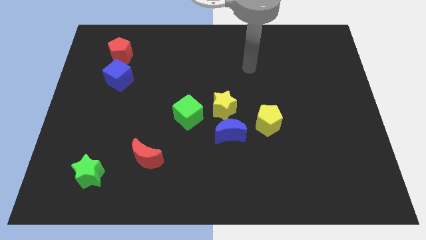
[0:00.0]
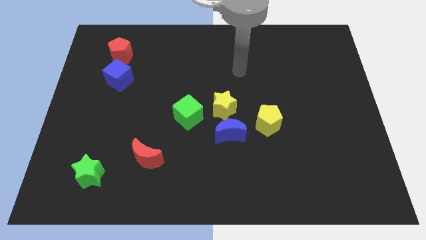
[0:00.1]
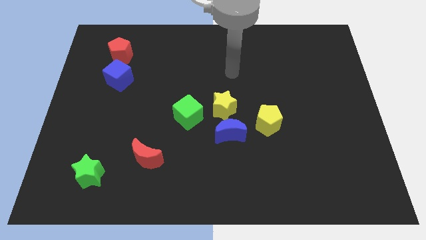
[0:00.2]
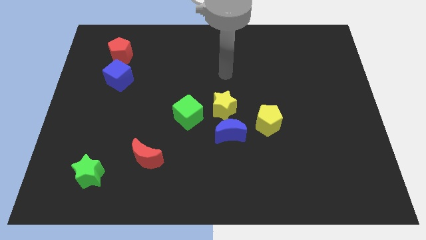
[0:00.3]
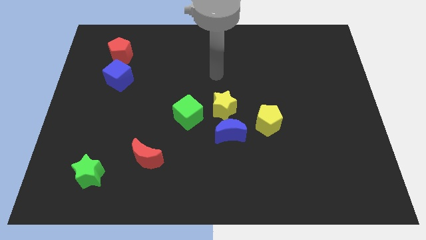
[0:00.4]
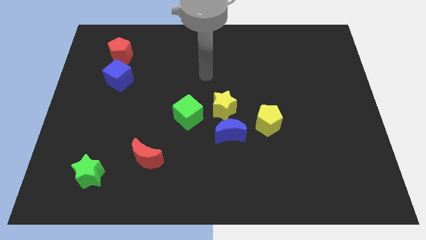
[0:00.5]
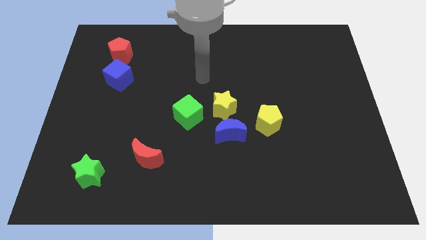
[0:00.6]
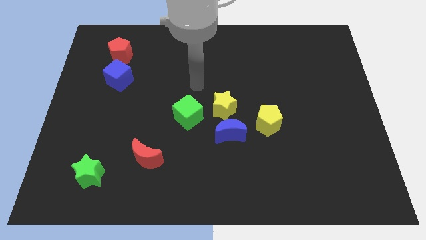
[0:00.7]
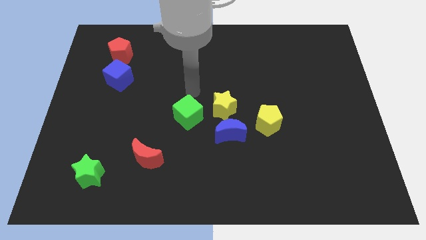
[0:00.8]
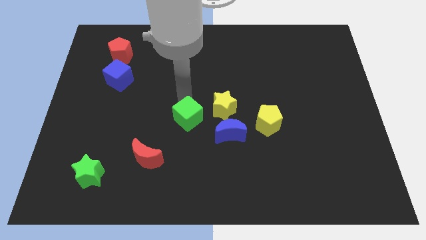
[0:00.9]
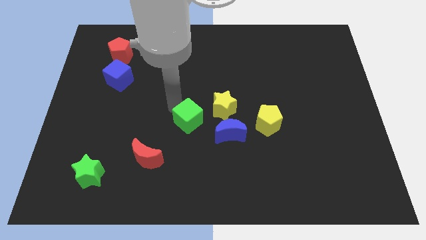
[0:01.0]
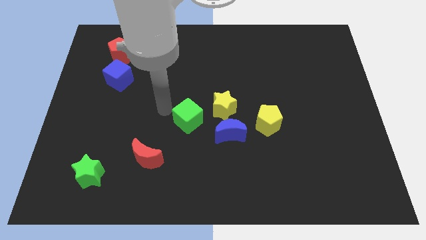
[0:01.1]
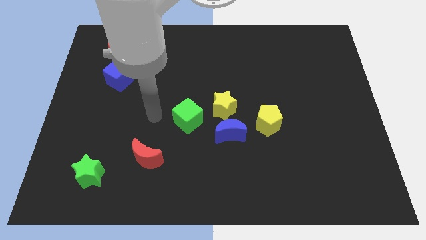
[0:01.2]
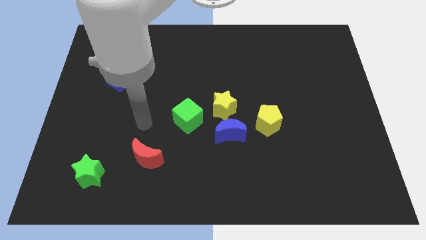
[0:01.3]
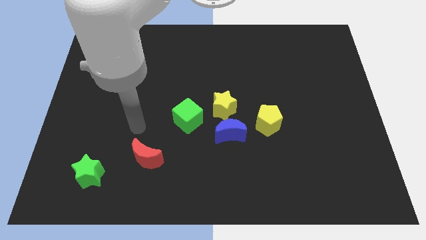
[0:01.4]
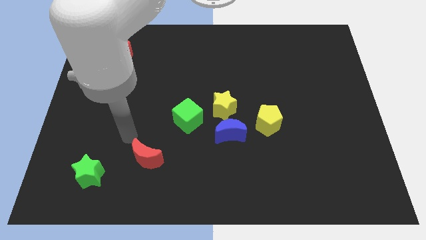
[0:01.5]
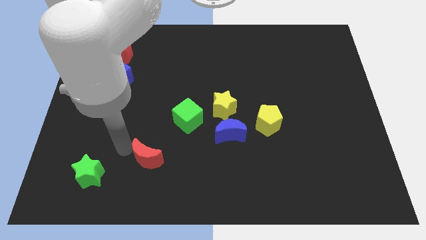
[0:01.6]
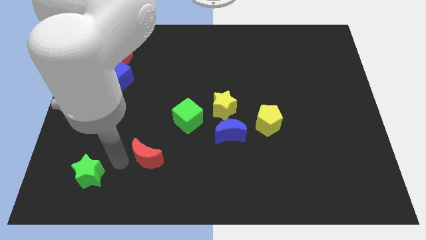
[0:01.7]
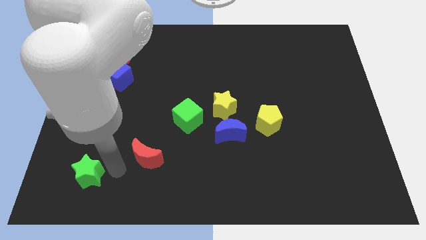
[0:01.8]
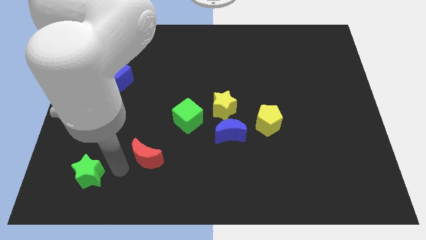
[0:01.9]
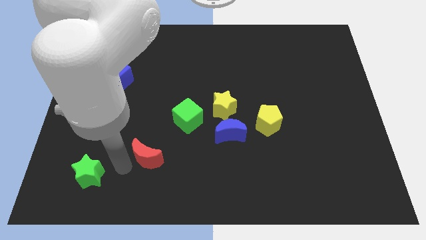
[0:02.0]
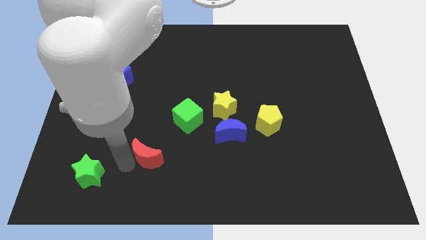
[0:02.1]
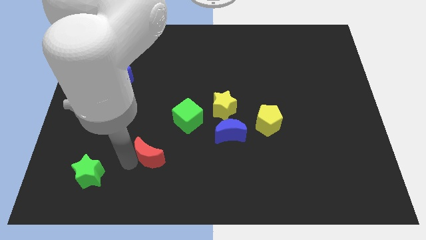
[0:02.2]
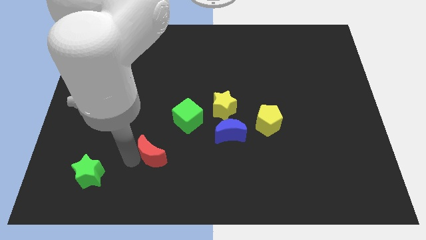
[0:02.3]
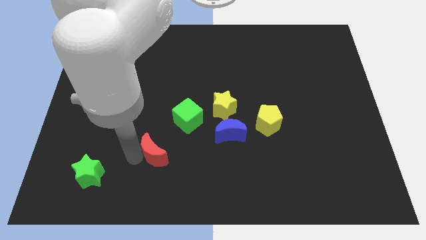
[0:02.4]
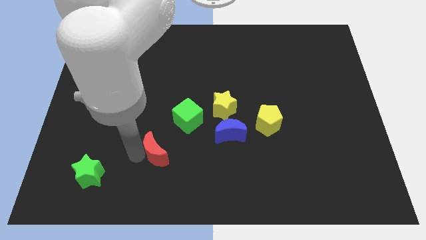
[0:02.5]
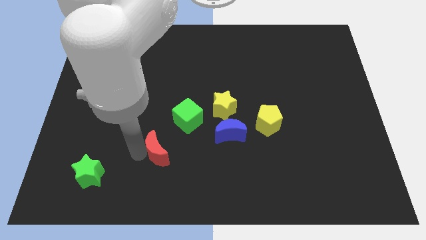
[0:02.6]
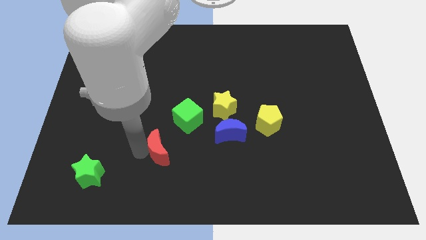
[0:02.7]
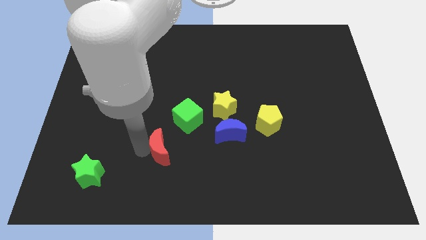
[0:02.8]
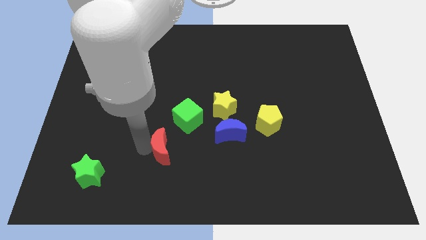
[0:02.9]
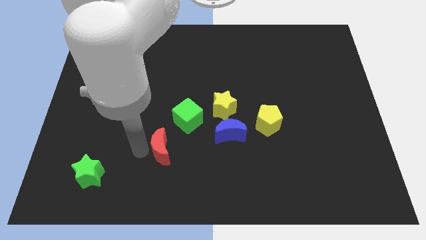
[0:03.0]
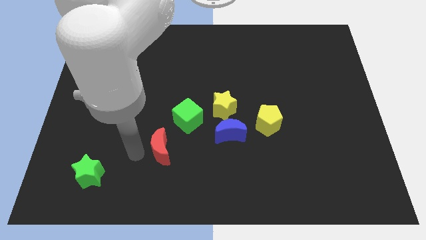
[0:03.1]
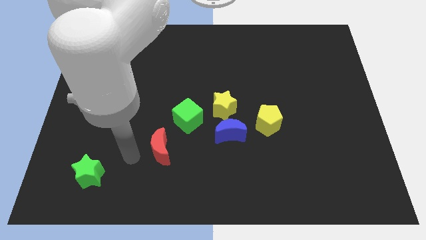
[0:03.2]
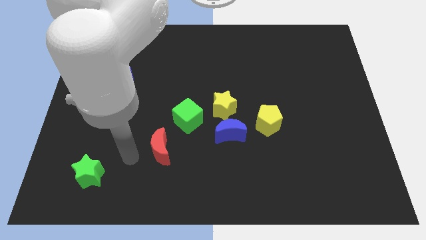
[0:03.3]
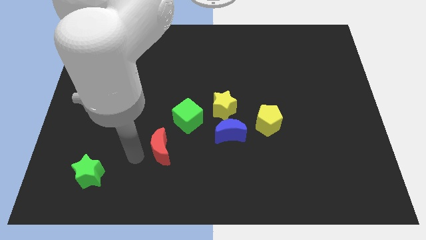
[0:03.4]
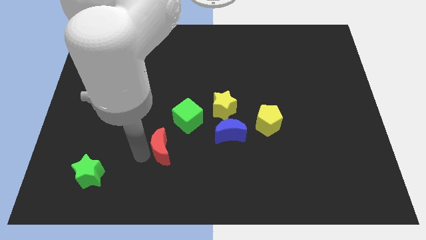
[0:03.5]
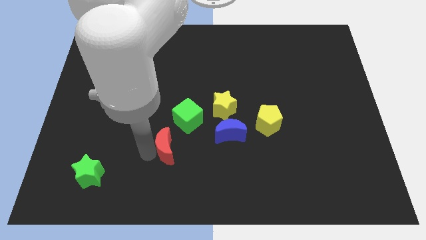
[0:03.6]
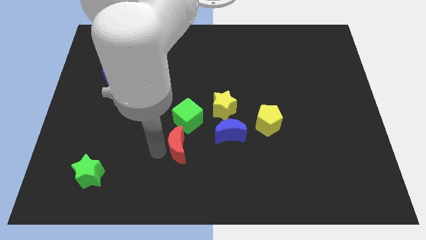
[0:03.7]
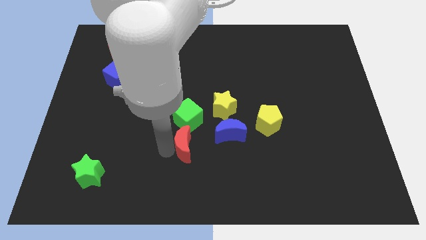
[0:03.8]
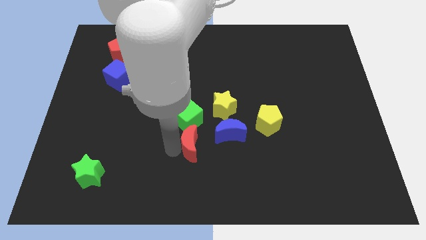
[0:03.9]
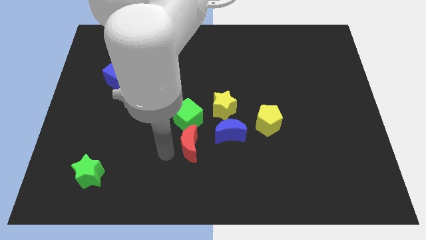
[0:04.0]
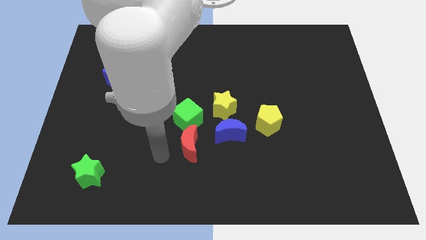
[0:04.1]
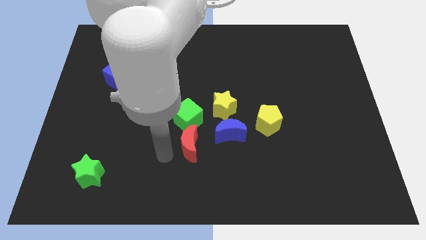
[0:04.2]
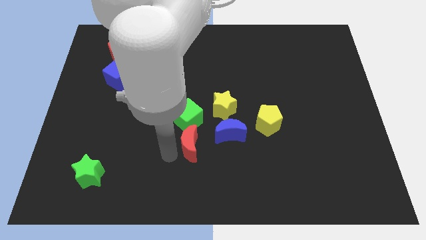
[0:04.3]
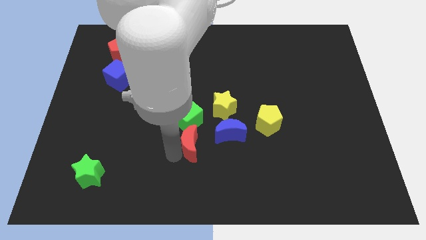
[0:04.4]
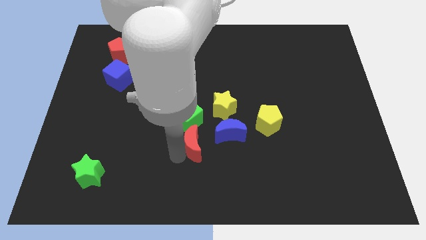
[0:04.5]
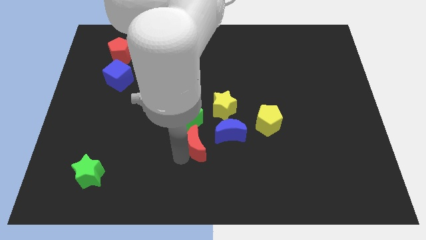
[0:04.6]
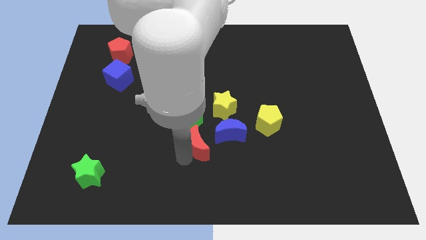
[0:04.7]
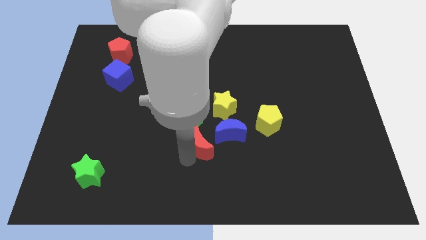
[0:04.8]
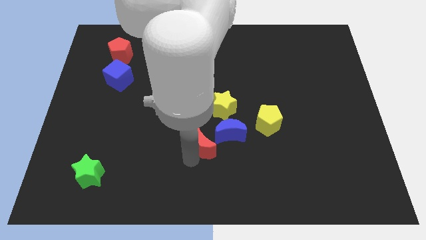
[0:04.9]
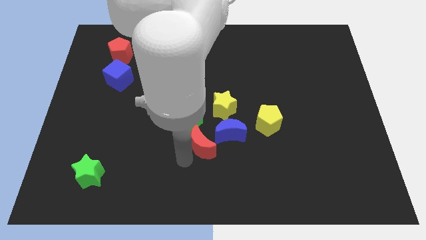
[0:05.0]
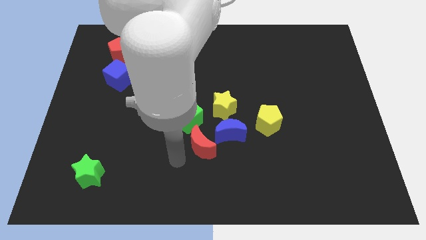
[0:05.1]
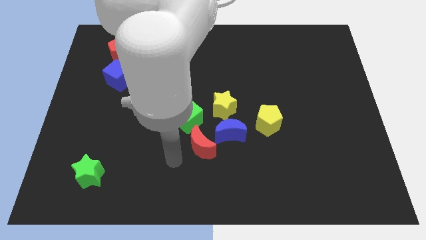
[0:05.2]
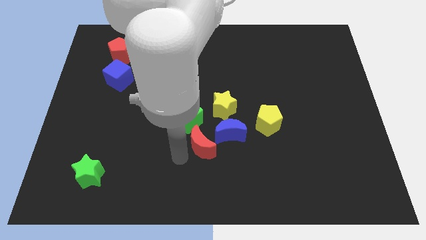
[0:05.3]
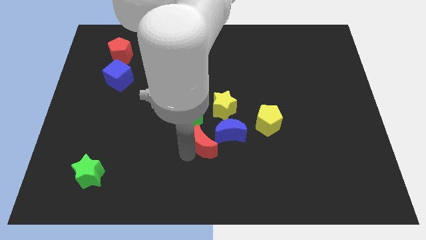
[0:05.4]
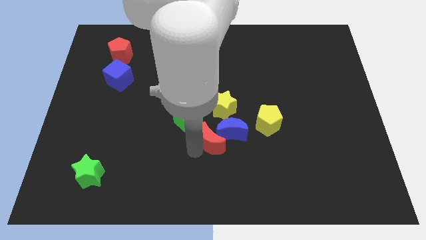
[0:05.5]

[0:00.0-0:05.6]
slide the red moon next to the blue moon
